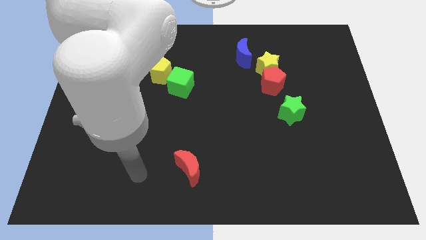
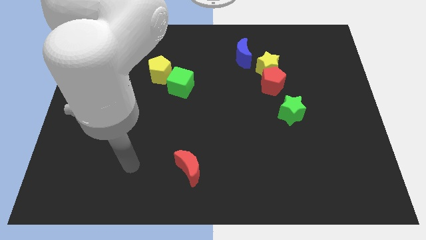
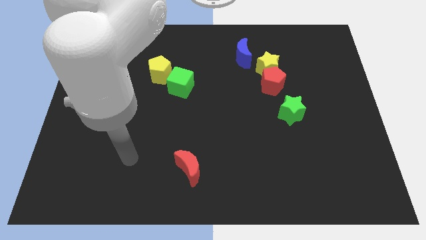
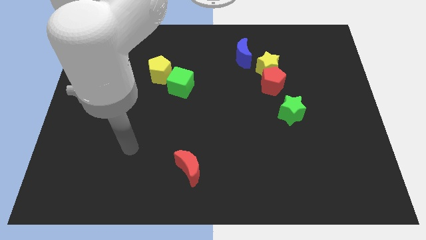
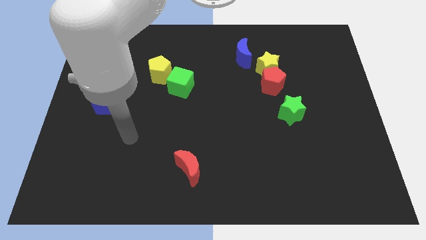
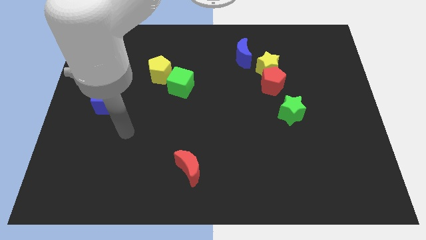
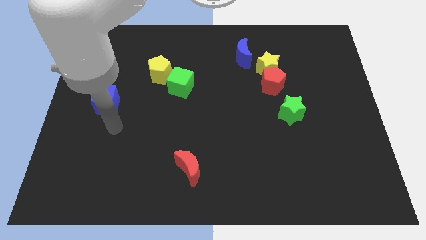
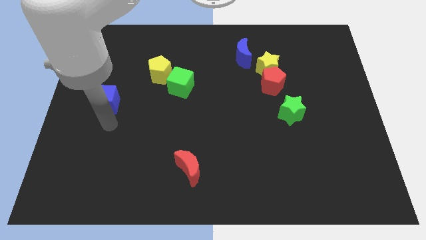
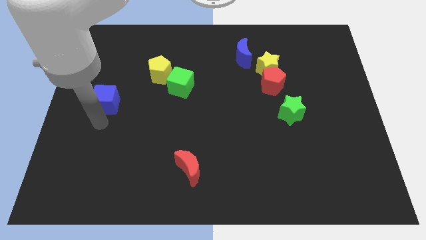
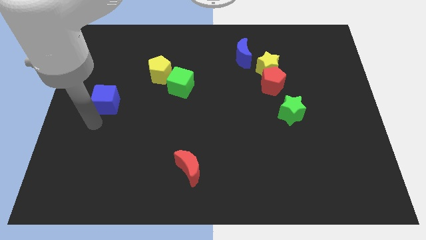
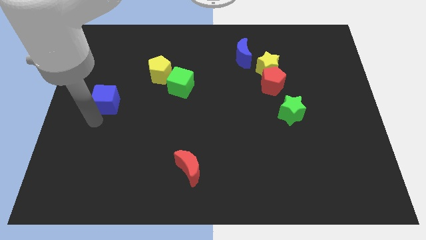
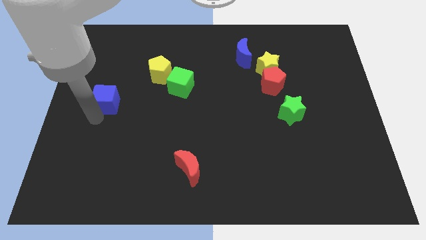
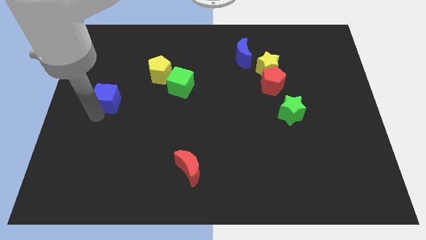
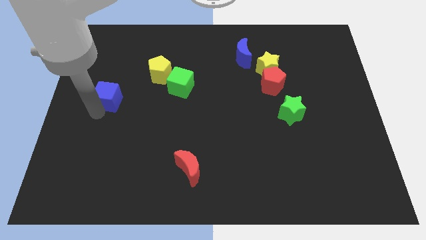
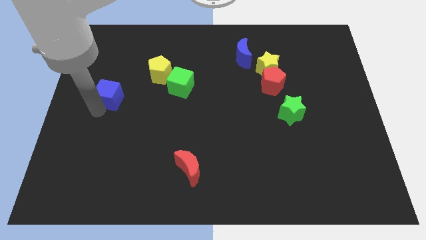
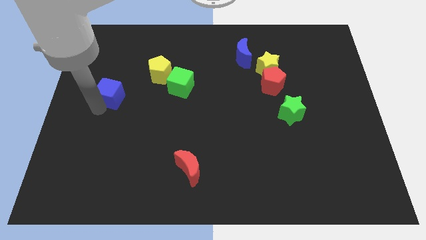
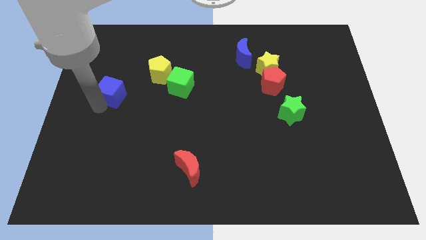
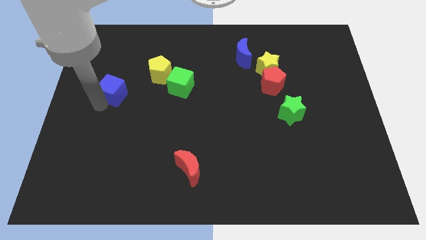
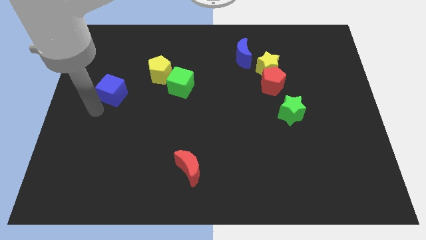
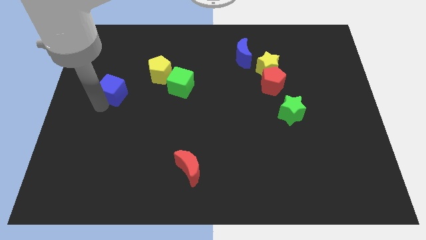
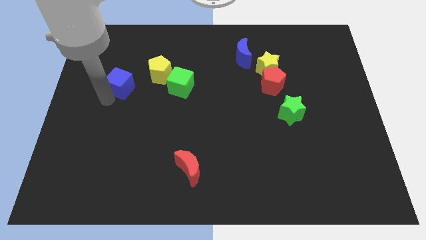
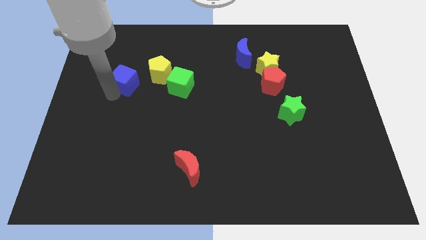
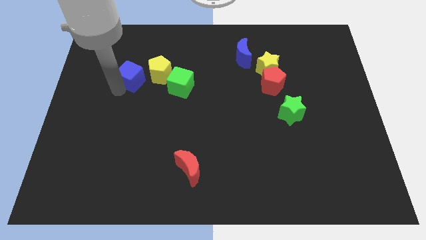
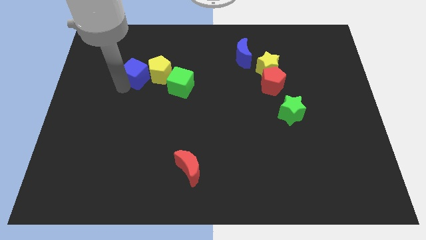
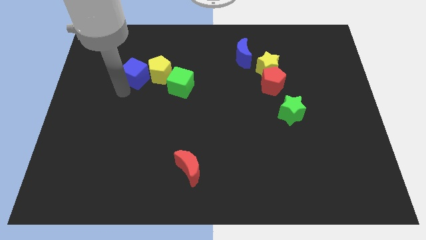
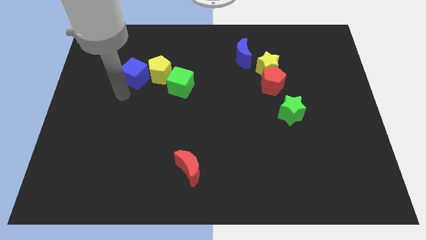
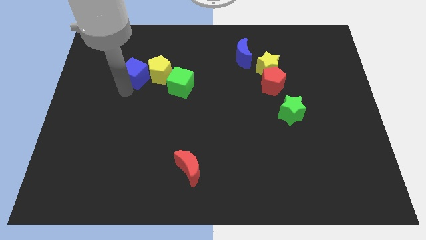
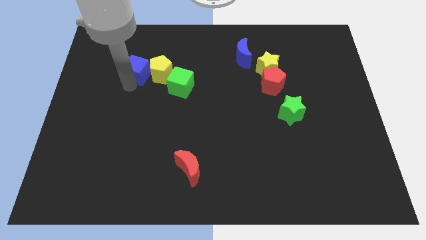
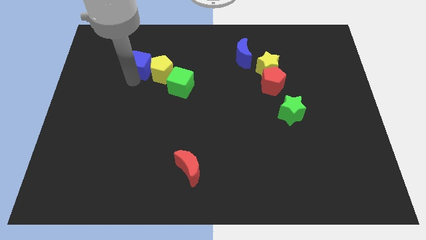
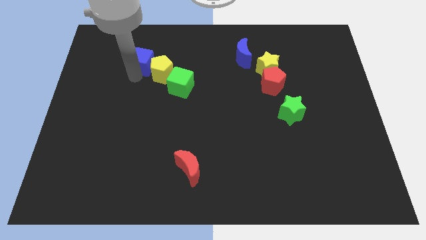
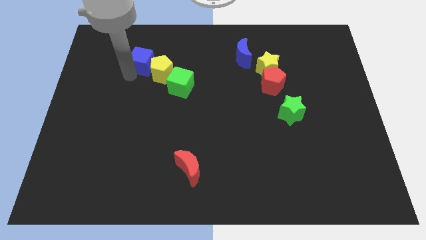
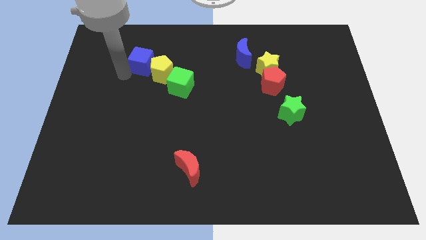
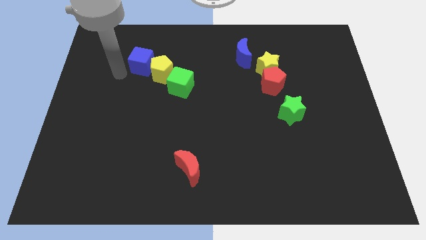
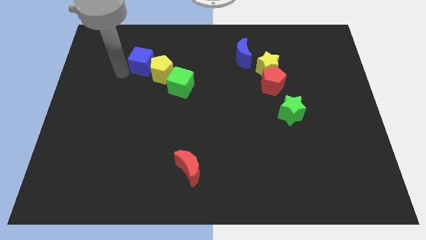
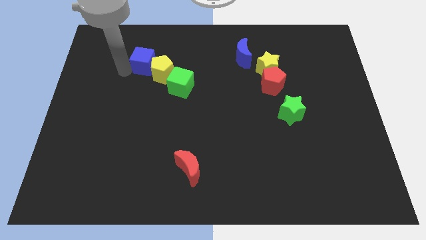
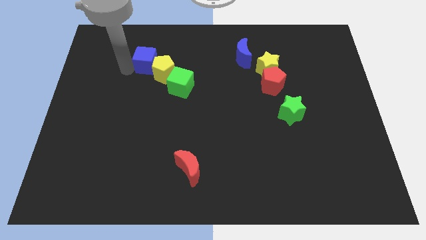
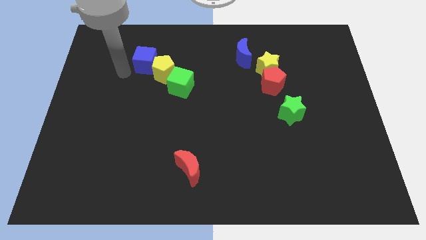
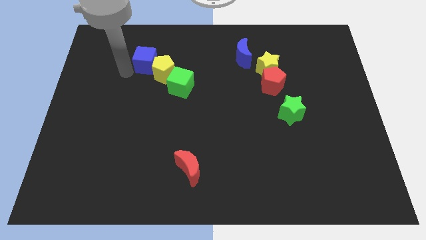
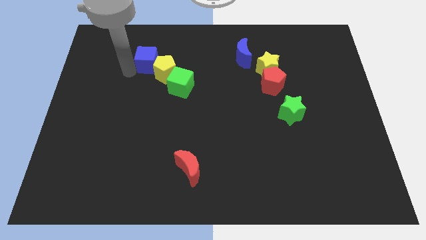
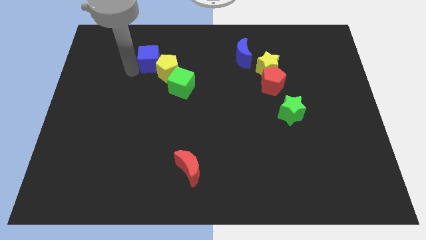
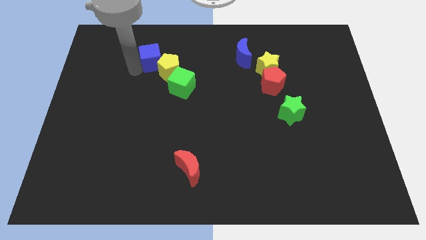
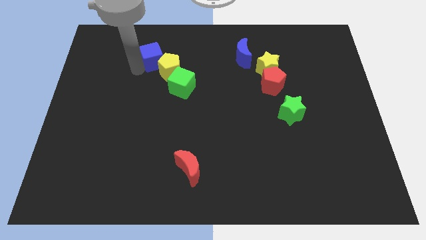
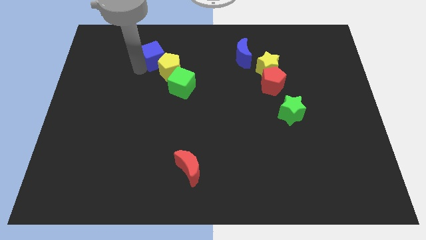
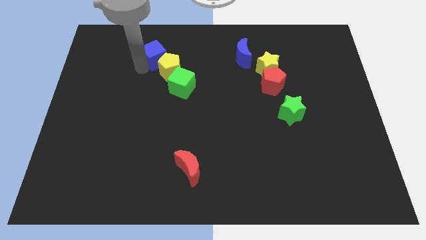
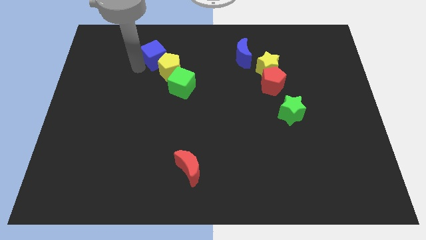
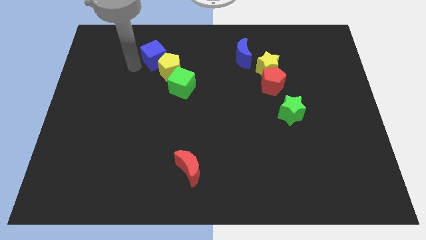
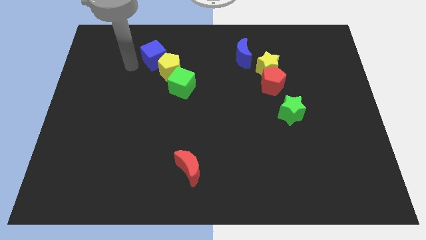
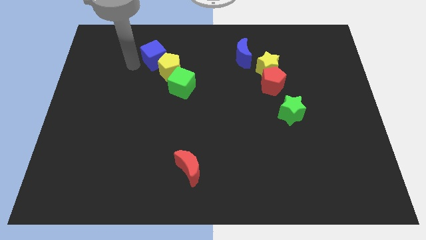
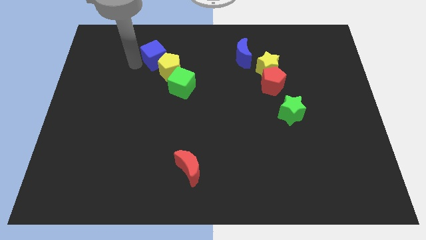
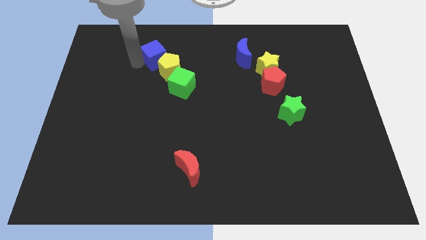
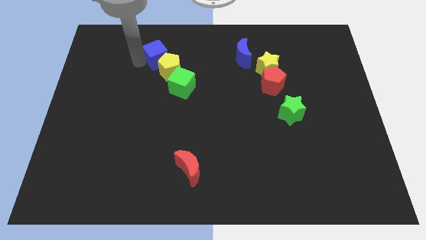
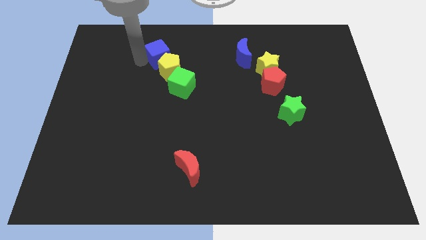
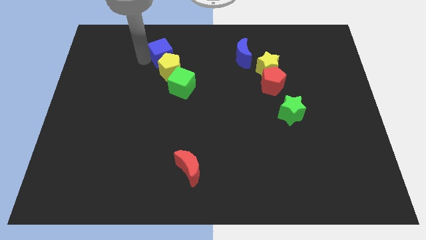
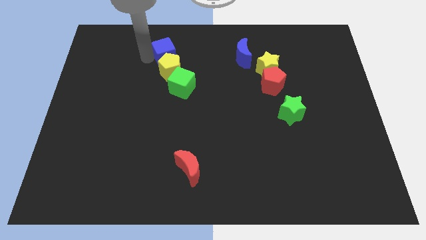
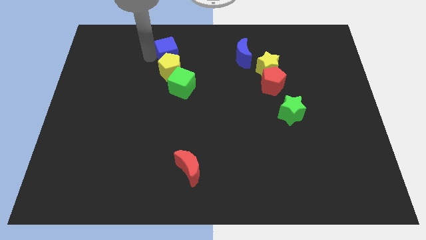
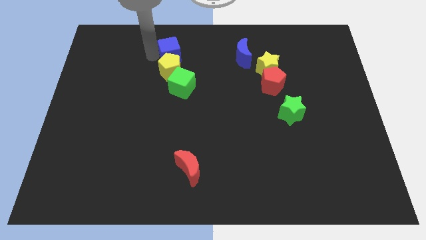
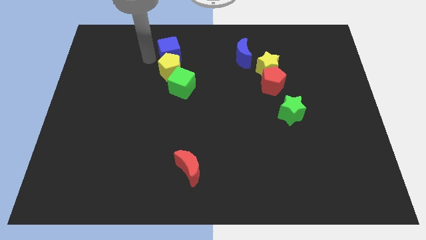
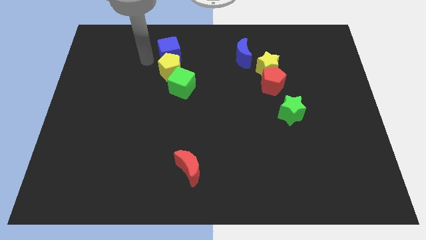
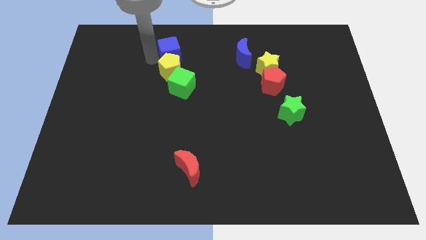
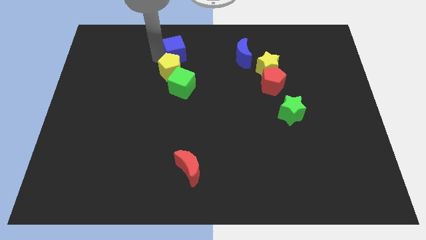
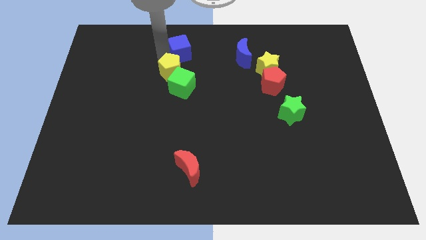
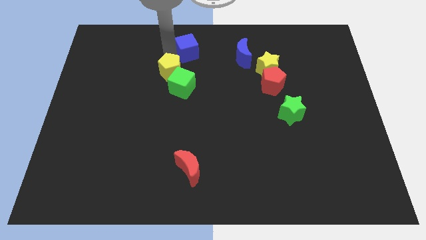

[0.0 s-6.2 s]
push the blue cube to the towards your base
